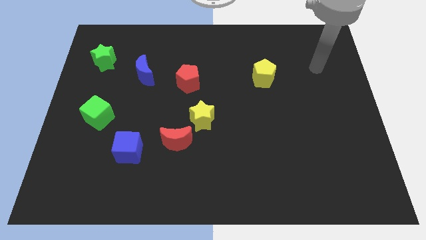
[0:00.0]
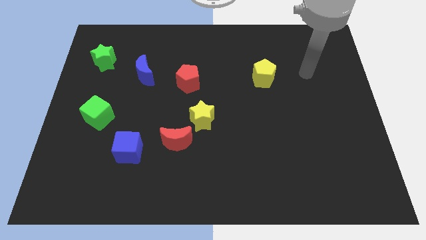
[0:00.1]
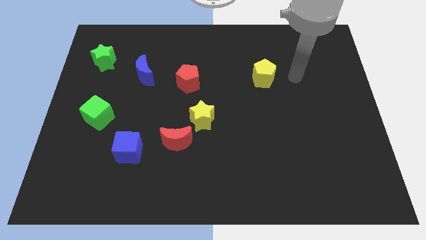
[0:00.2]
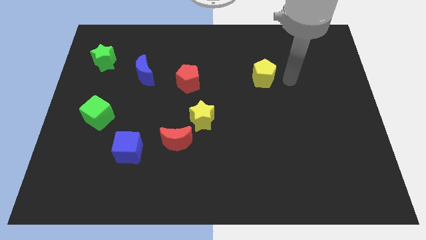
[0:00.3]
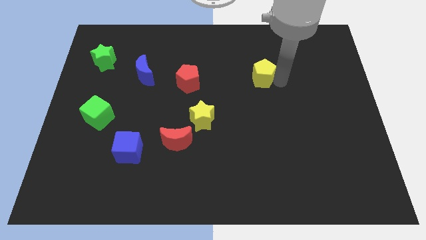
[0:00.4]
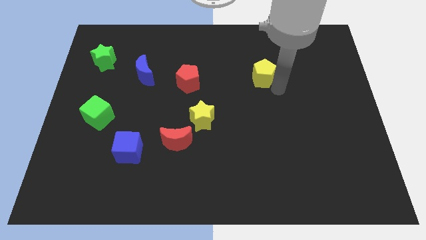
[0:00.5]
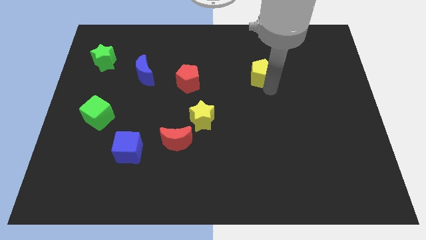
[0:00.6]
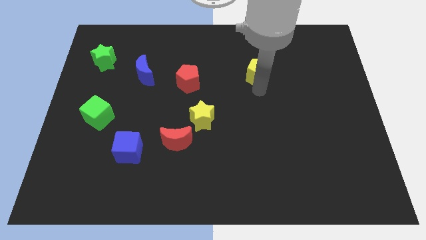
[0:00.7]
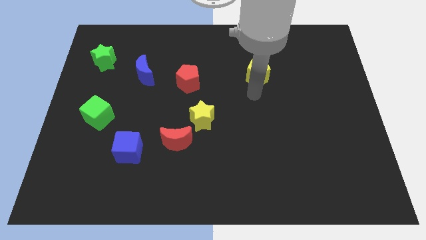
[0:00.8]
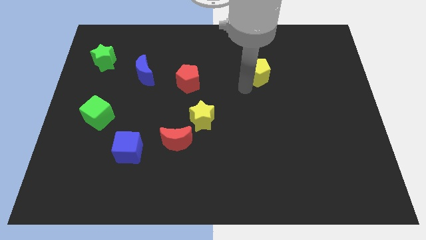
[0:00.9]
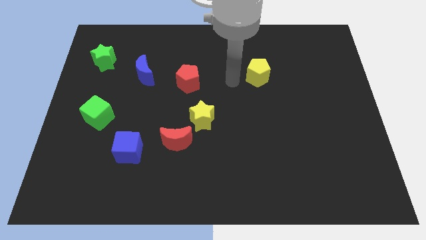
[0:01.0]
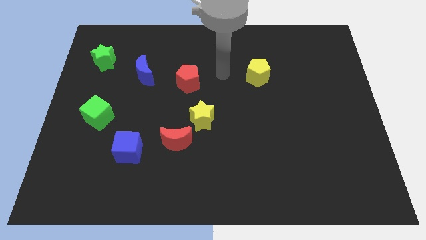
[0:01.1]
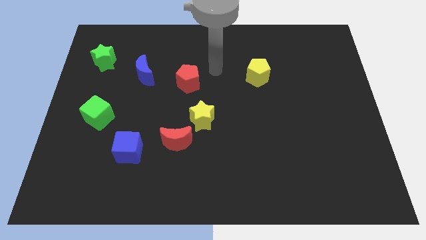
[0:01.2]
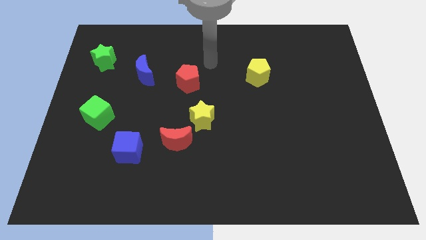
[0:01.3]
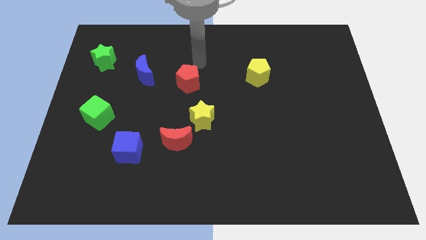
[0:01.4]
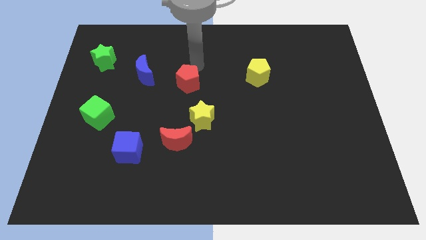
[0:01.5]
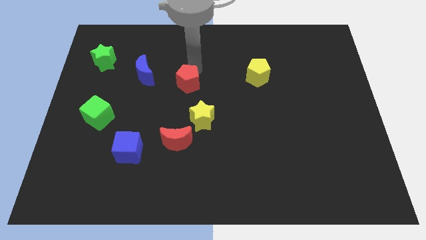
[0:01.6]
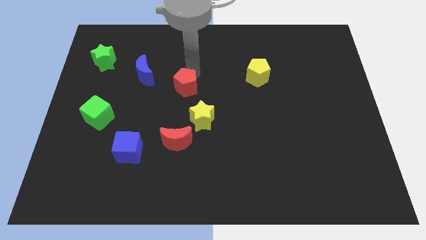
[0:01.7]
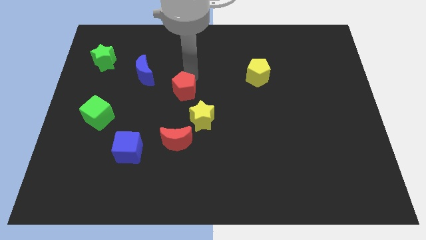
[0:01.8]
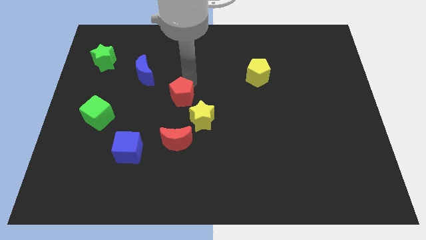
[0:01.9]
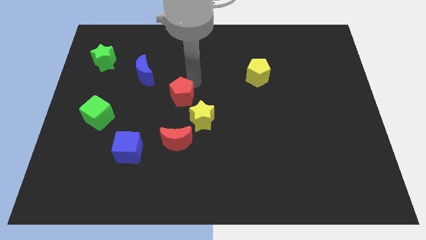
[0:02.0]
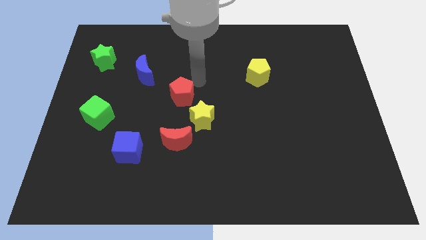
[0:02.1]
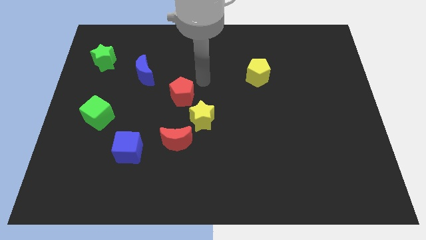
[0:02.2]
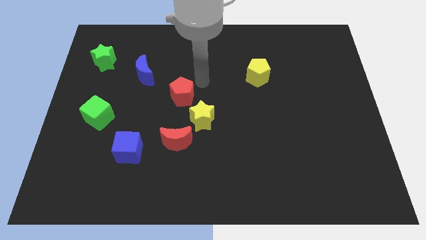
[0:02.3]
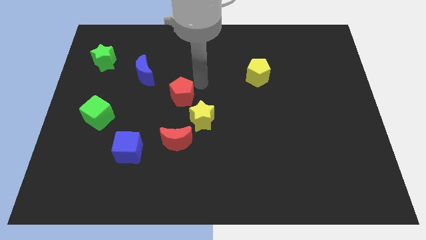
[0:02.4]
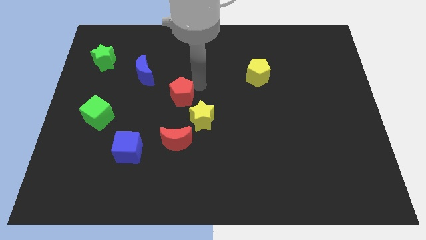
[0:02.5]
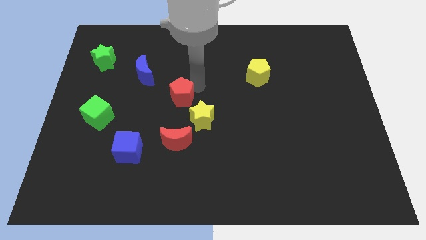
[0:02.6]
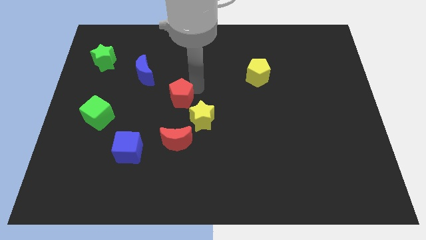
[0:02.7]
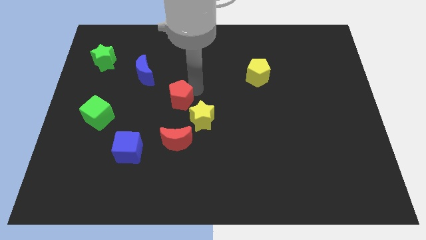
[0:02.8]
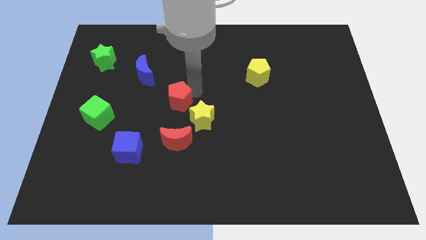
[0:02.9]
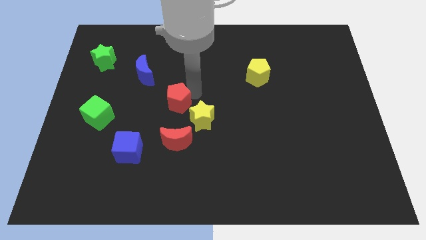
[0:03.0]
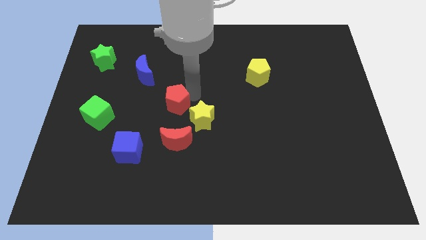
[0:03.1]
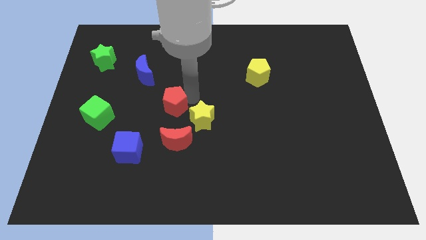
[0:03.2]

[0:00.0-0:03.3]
slightly slide the red pentagon downwards and to the left

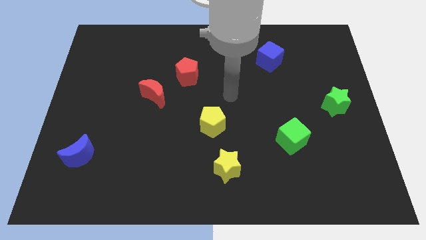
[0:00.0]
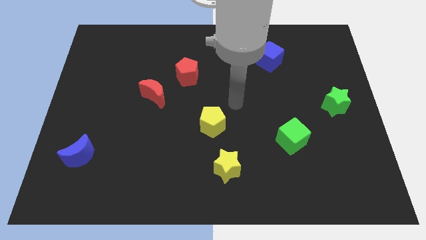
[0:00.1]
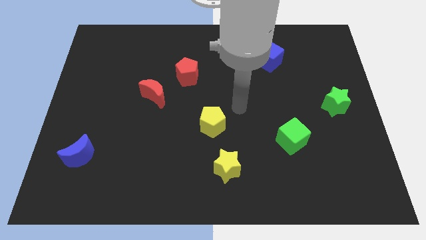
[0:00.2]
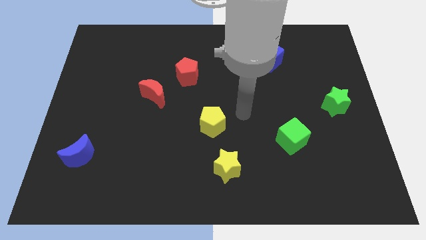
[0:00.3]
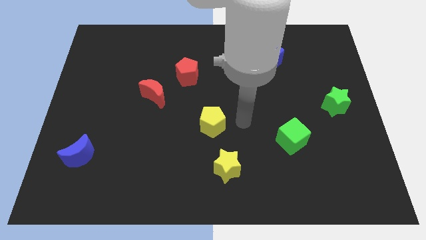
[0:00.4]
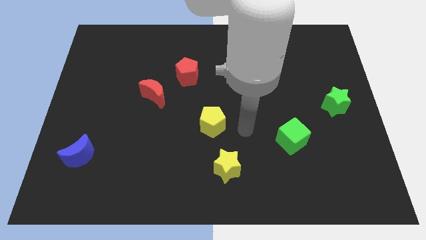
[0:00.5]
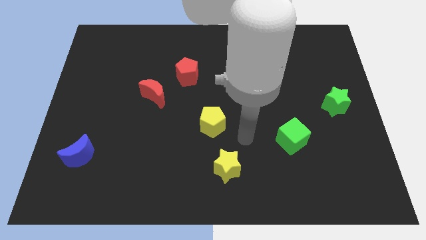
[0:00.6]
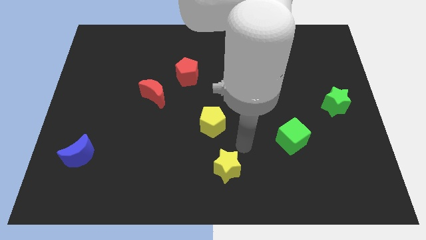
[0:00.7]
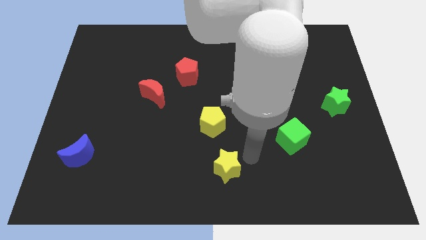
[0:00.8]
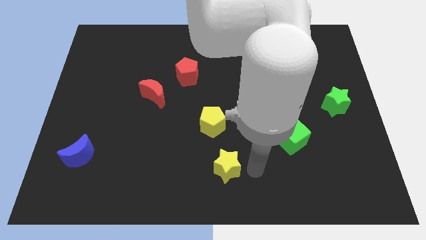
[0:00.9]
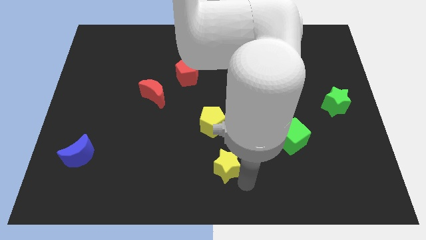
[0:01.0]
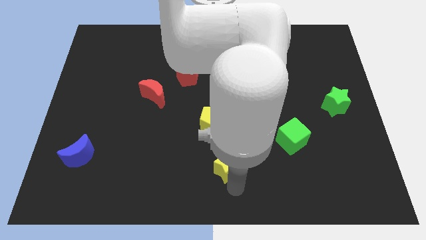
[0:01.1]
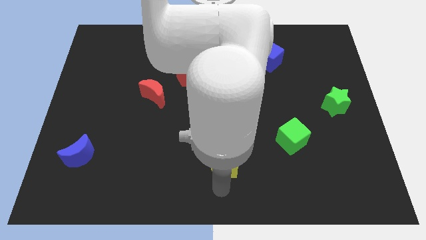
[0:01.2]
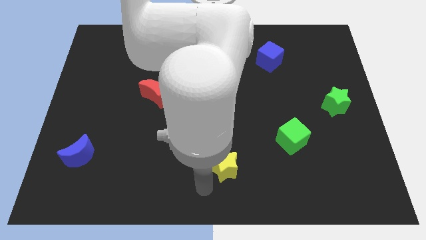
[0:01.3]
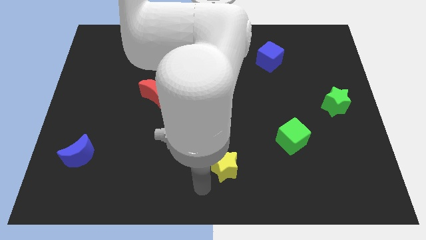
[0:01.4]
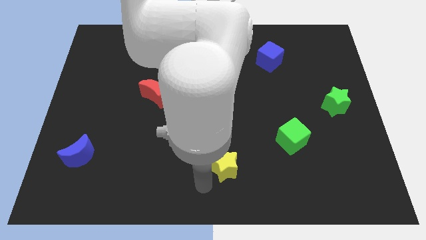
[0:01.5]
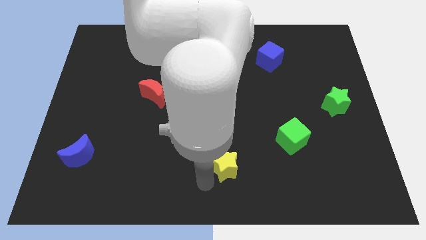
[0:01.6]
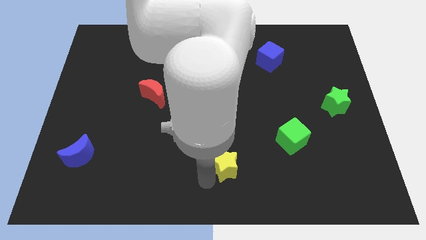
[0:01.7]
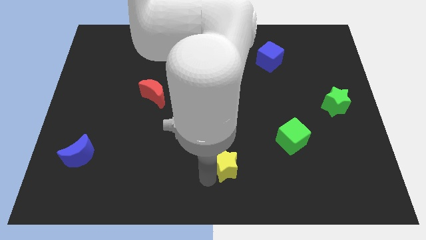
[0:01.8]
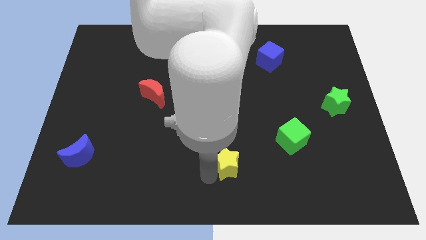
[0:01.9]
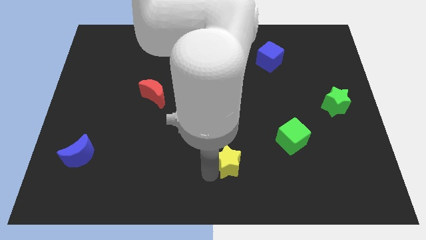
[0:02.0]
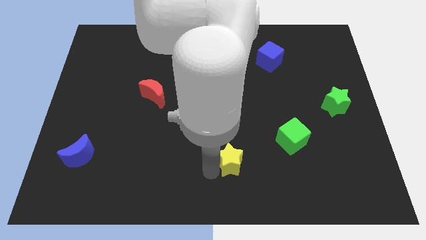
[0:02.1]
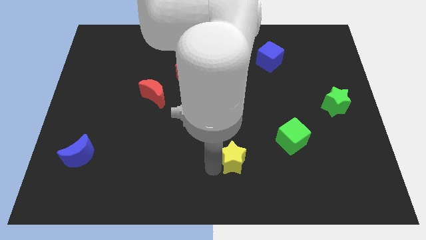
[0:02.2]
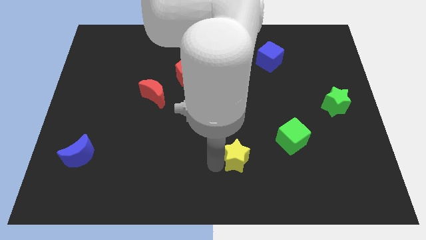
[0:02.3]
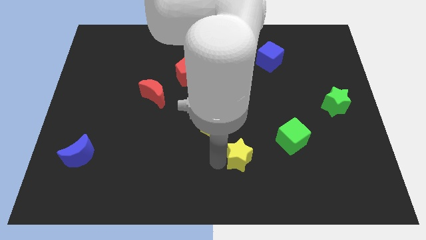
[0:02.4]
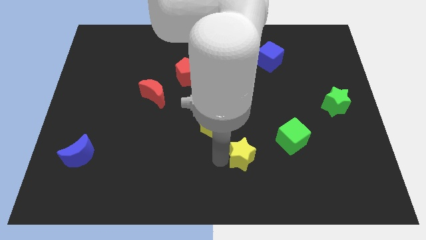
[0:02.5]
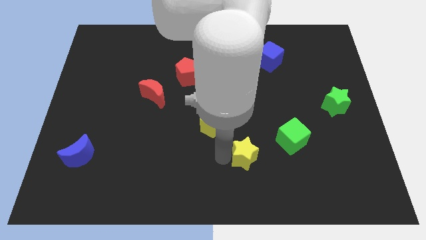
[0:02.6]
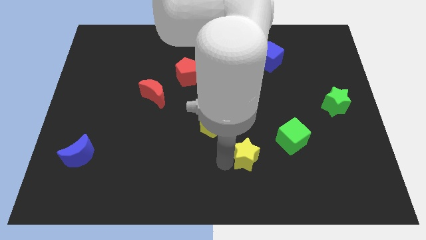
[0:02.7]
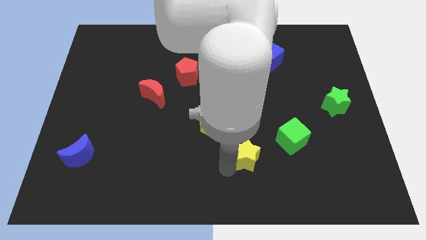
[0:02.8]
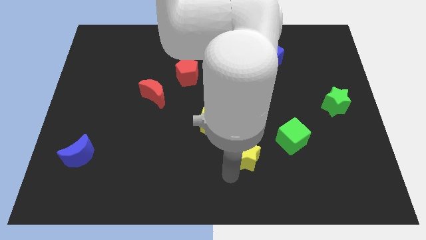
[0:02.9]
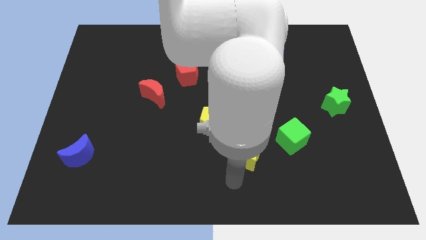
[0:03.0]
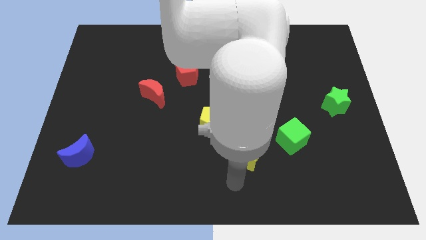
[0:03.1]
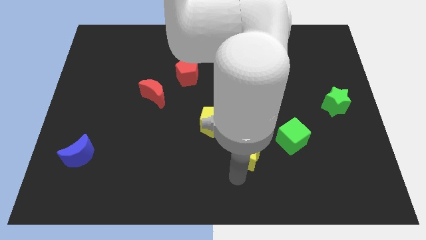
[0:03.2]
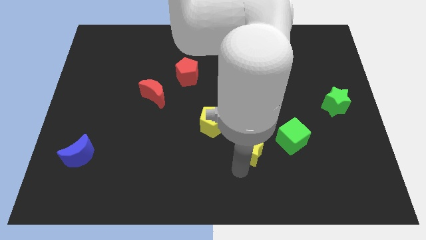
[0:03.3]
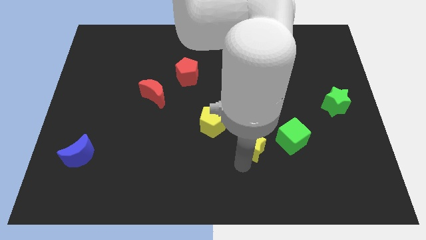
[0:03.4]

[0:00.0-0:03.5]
slightly push the yellow star up and right

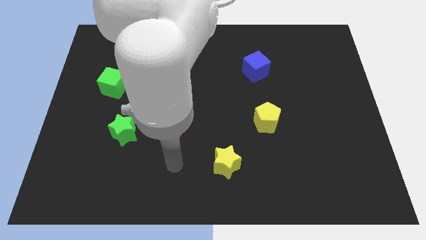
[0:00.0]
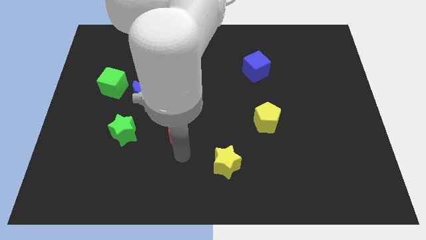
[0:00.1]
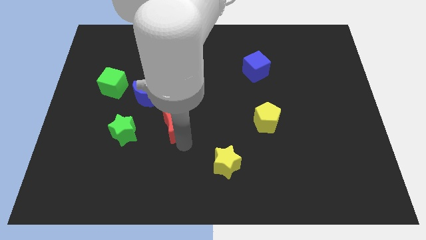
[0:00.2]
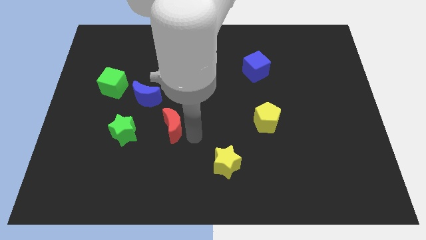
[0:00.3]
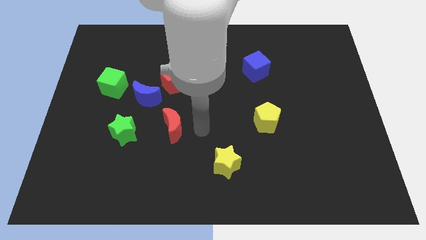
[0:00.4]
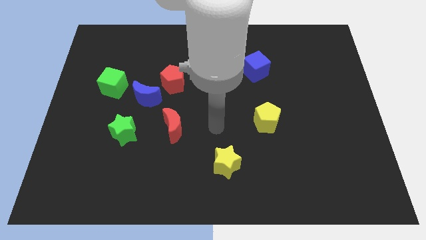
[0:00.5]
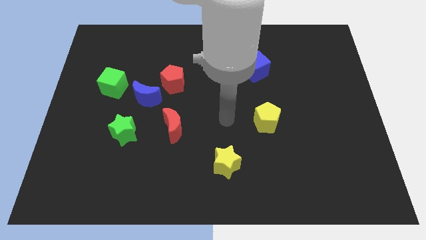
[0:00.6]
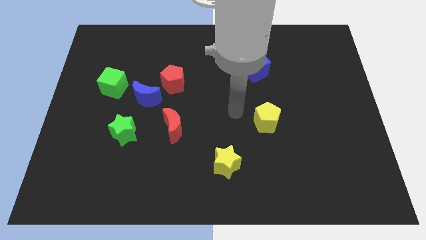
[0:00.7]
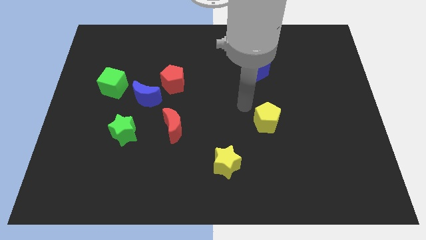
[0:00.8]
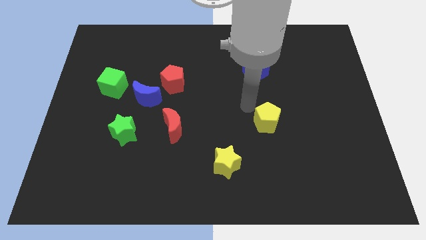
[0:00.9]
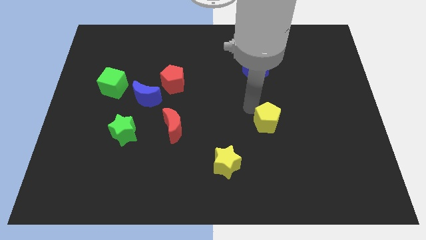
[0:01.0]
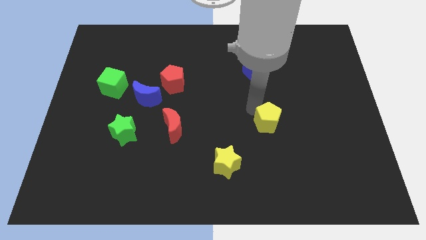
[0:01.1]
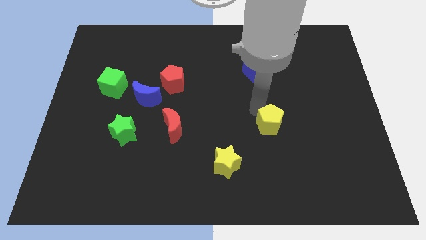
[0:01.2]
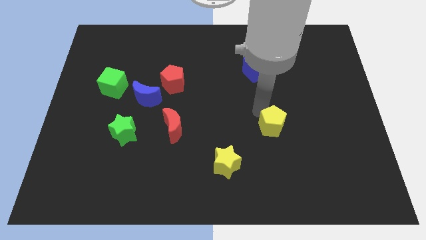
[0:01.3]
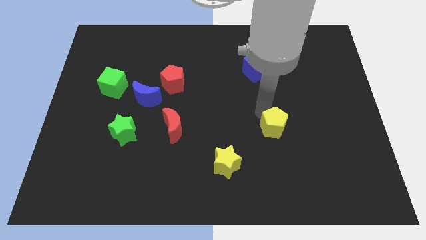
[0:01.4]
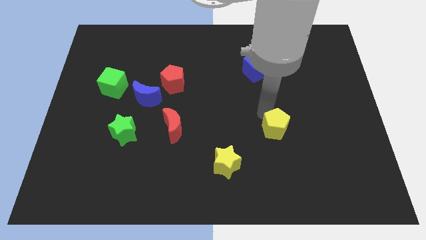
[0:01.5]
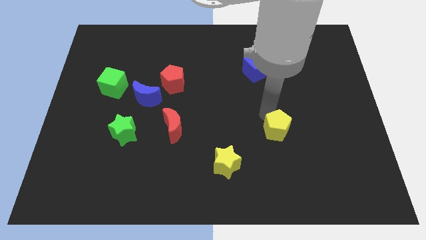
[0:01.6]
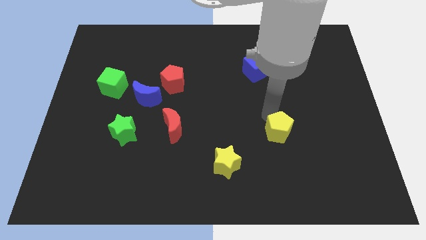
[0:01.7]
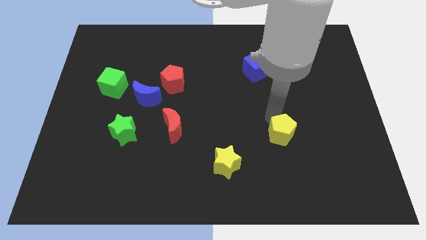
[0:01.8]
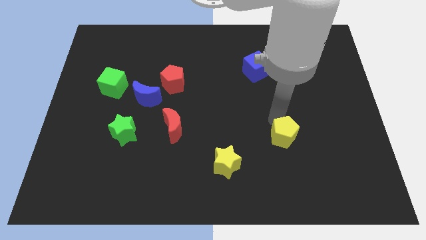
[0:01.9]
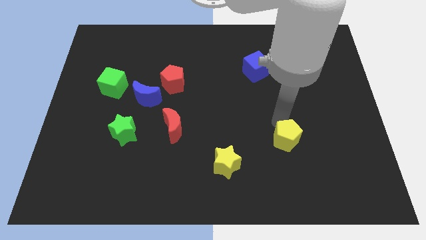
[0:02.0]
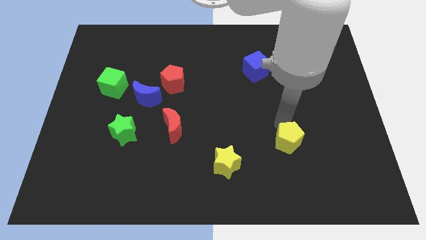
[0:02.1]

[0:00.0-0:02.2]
move the yellow pentagon downwards and then to the right a bit
